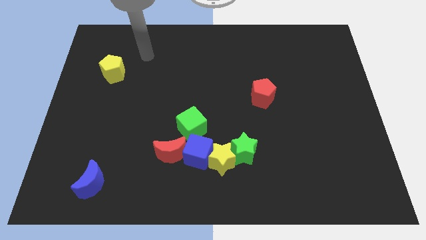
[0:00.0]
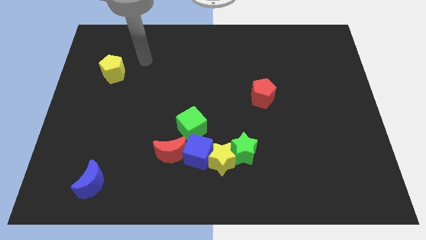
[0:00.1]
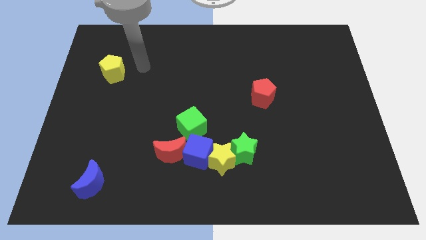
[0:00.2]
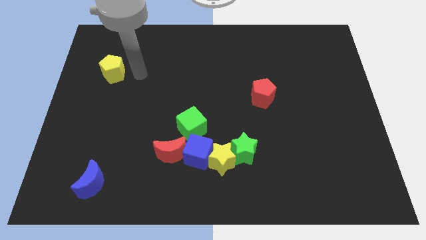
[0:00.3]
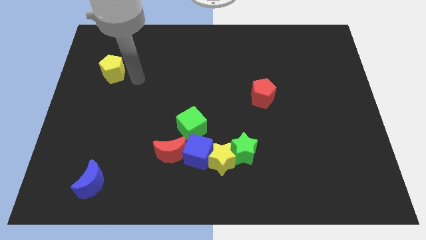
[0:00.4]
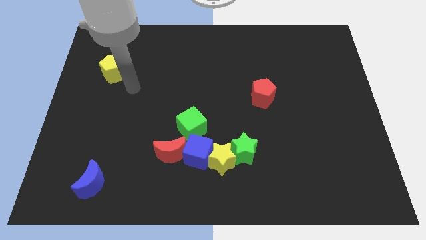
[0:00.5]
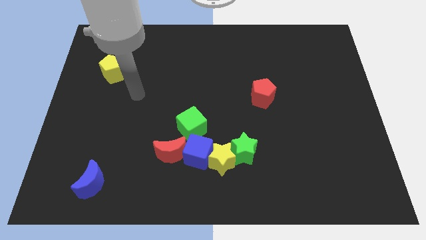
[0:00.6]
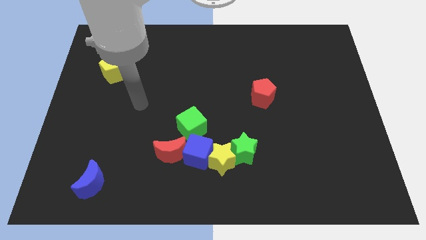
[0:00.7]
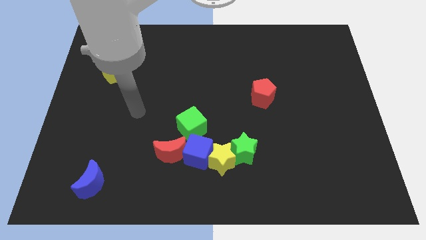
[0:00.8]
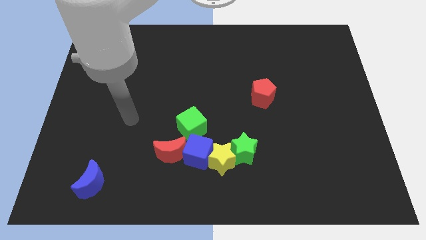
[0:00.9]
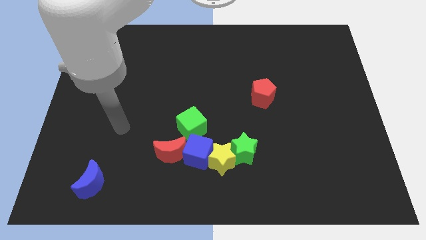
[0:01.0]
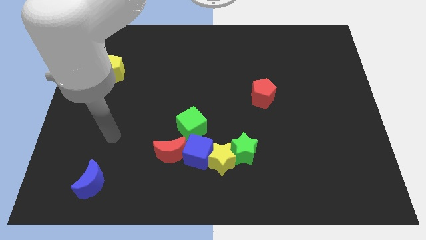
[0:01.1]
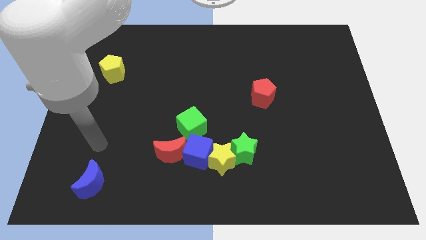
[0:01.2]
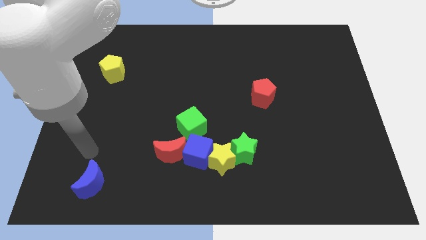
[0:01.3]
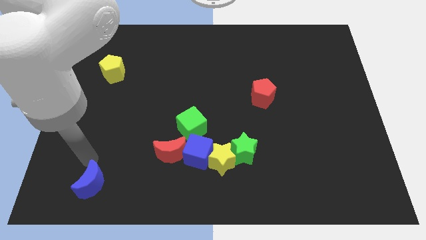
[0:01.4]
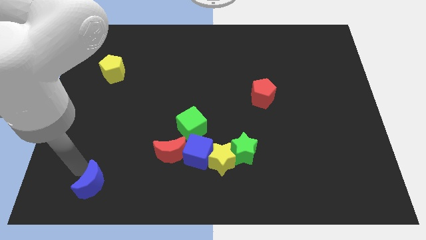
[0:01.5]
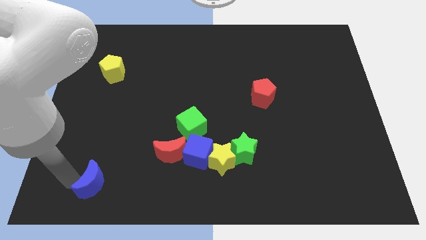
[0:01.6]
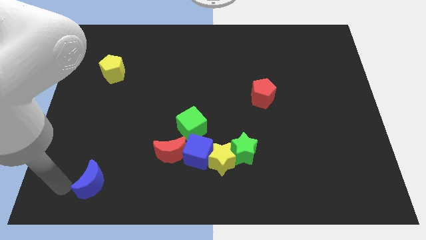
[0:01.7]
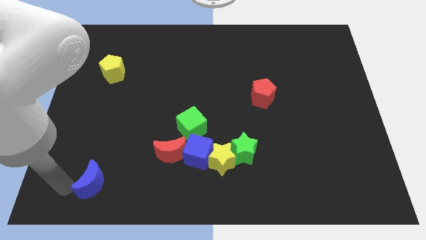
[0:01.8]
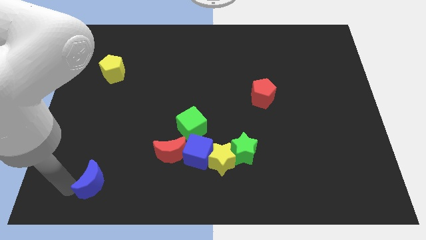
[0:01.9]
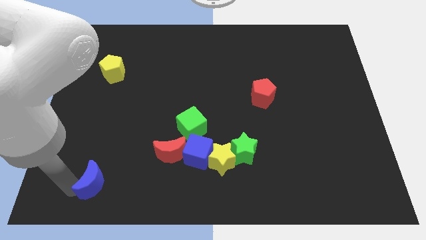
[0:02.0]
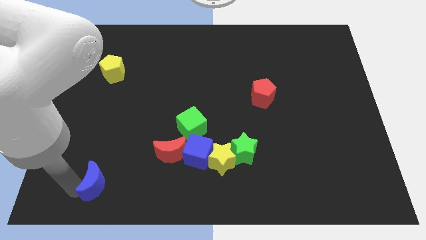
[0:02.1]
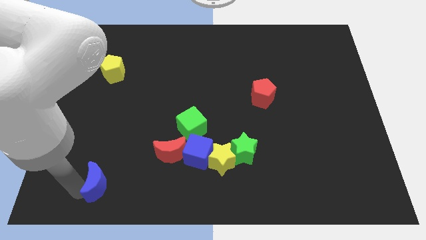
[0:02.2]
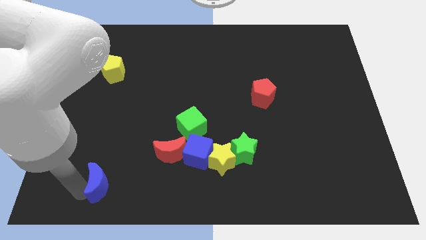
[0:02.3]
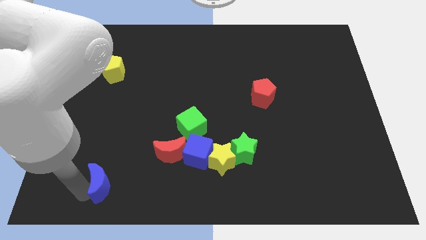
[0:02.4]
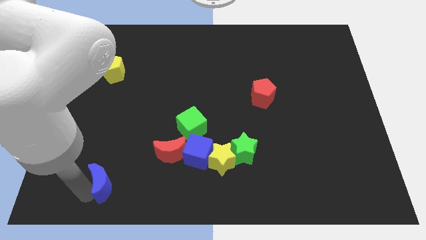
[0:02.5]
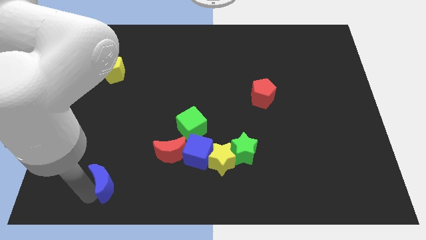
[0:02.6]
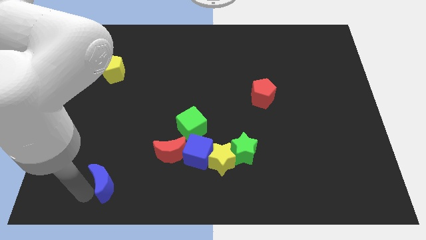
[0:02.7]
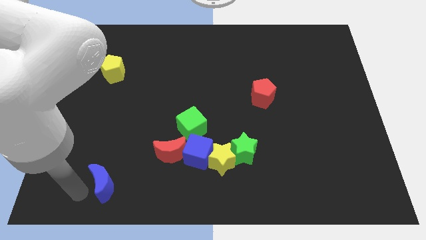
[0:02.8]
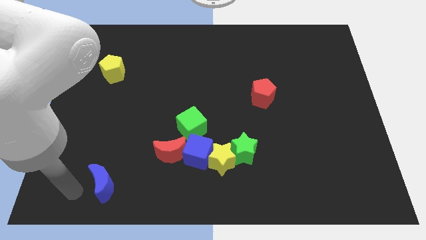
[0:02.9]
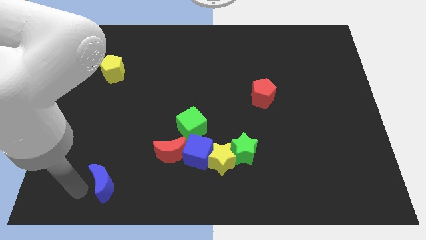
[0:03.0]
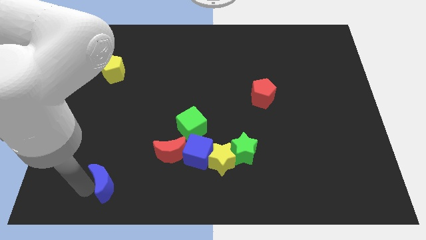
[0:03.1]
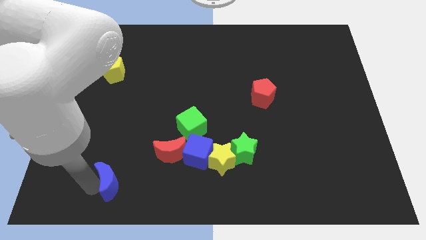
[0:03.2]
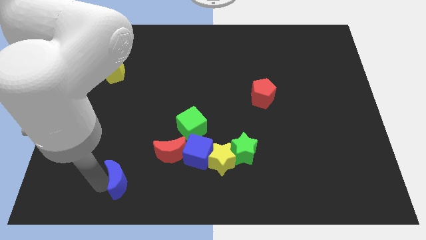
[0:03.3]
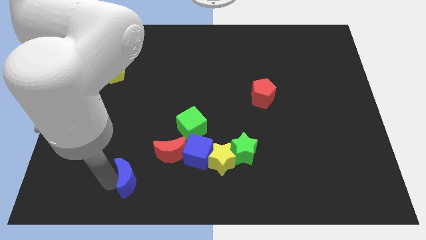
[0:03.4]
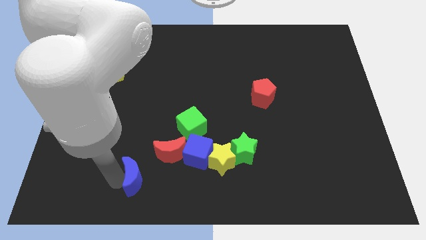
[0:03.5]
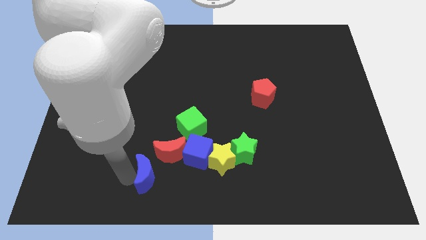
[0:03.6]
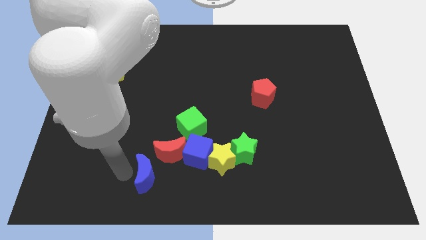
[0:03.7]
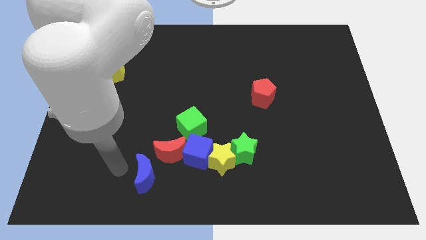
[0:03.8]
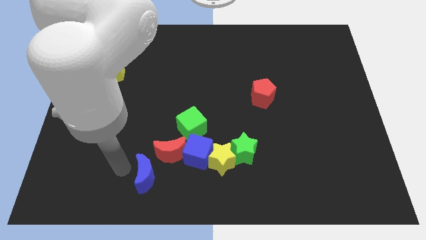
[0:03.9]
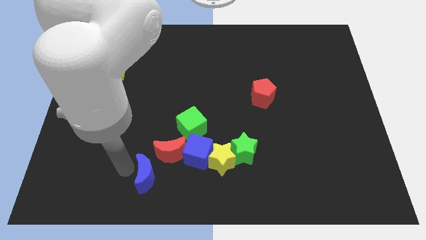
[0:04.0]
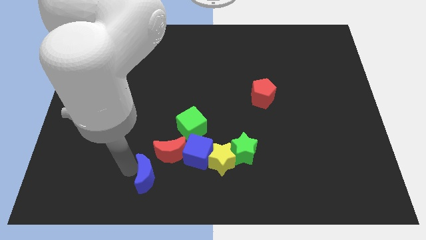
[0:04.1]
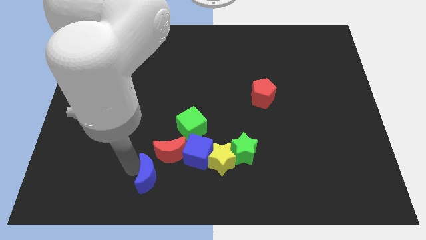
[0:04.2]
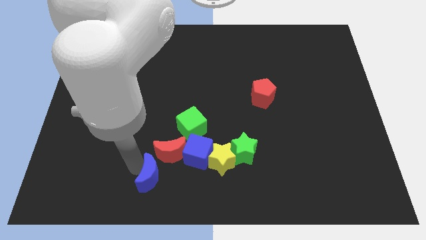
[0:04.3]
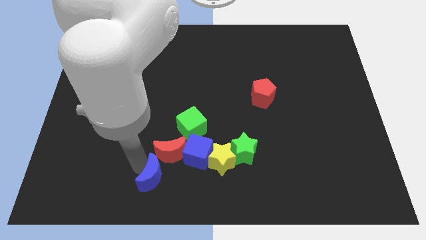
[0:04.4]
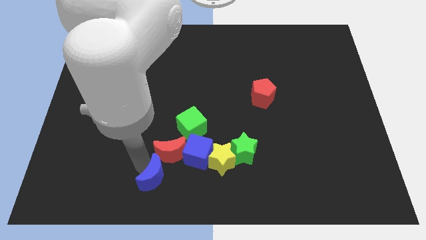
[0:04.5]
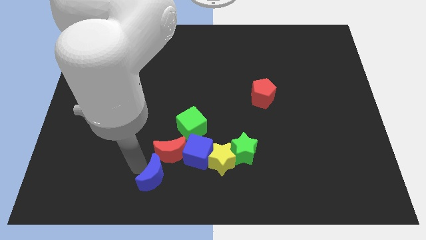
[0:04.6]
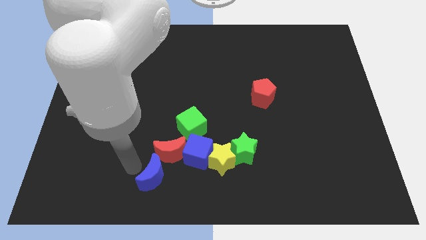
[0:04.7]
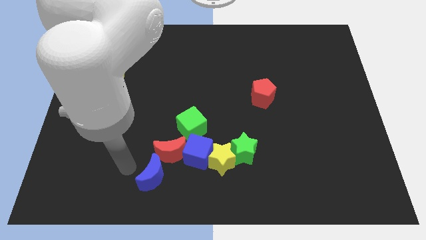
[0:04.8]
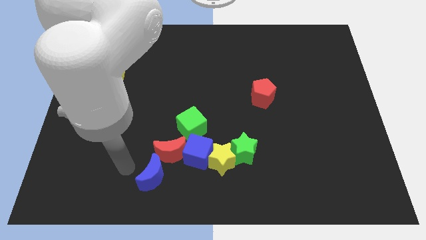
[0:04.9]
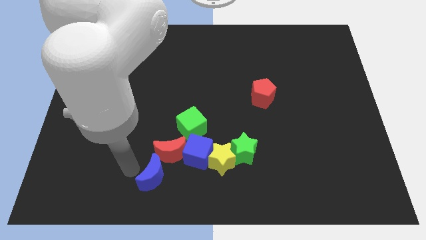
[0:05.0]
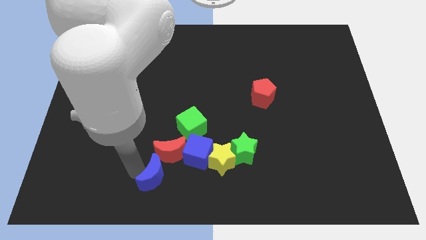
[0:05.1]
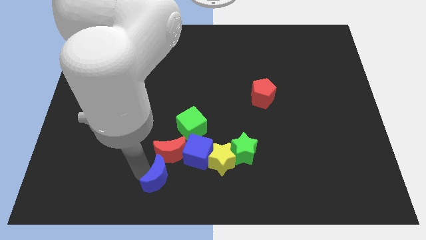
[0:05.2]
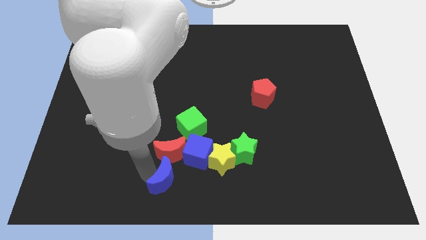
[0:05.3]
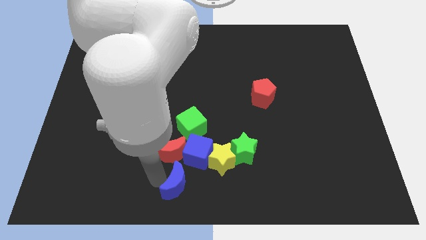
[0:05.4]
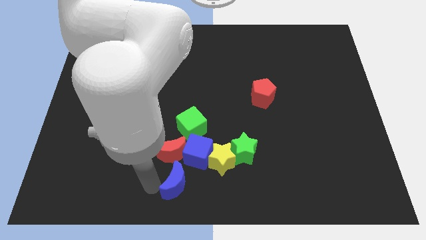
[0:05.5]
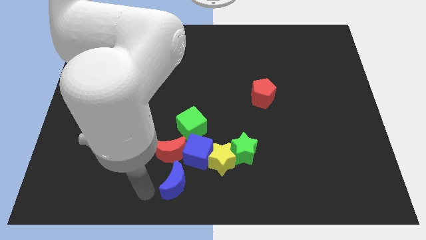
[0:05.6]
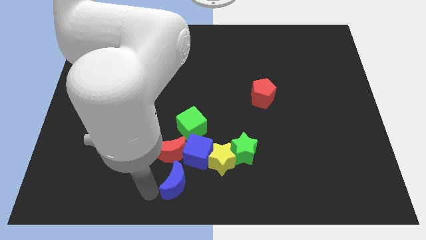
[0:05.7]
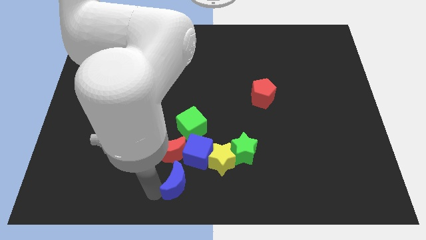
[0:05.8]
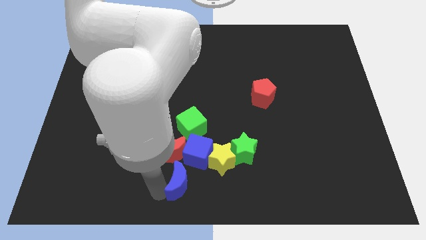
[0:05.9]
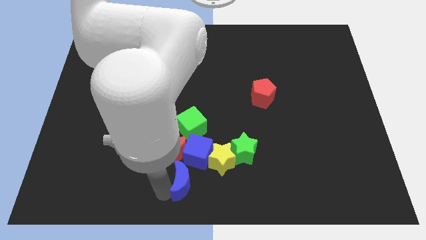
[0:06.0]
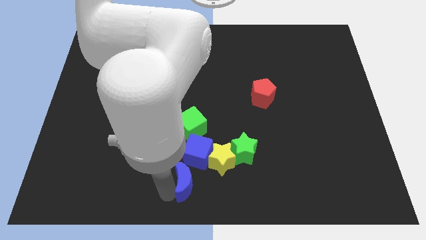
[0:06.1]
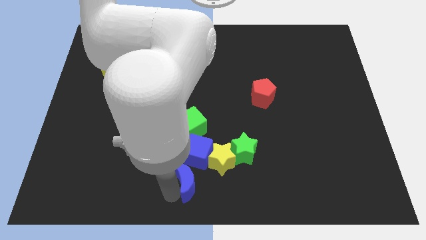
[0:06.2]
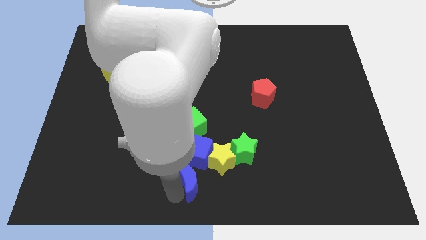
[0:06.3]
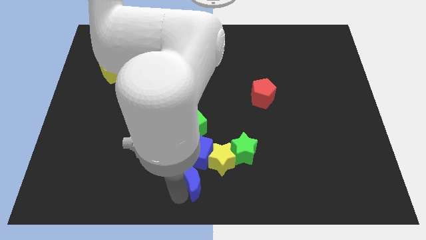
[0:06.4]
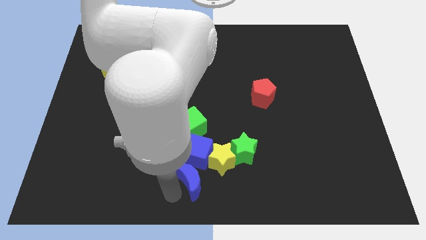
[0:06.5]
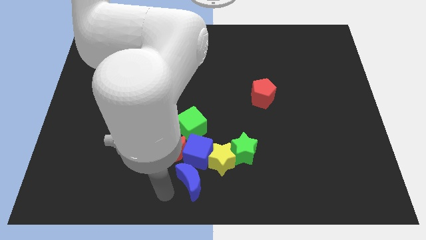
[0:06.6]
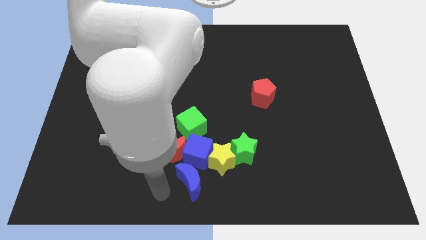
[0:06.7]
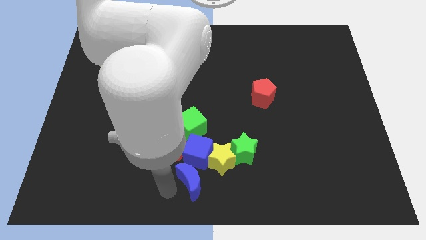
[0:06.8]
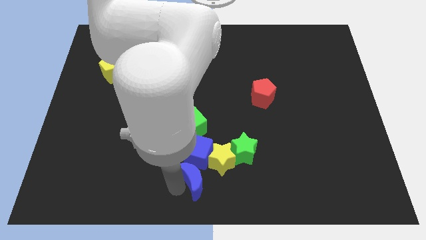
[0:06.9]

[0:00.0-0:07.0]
move the blue moon to the bottom left of the green star
